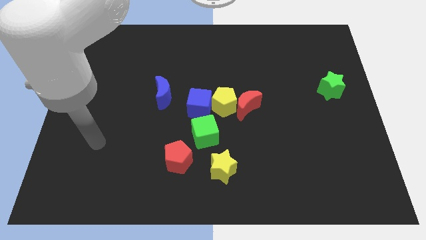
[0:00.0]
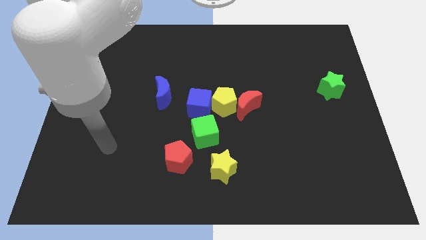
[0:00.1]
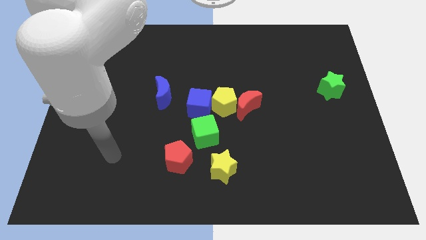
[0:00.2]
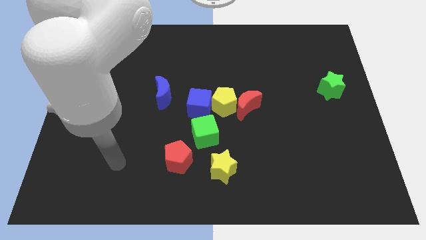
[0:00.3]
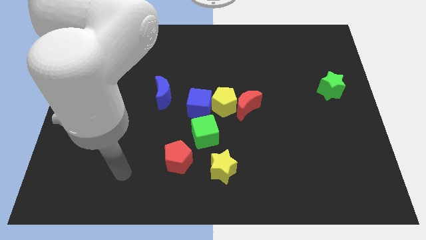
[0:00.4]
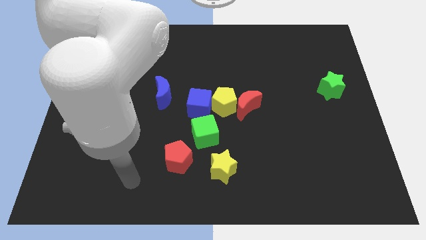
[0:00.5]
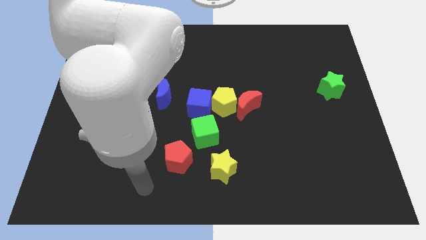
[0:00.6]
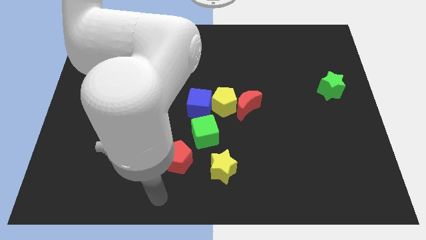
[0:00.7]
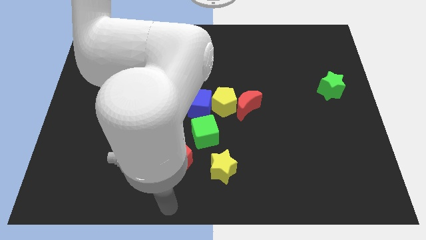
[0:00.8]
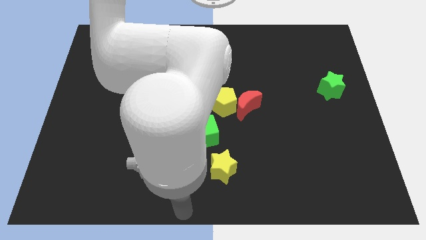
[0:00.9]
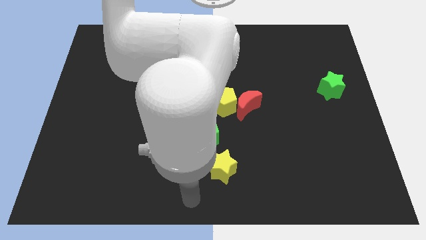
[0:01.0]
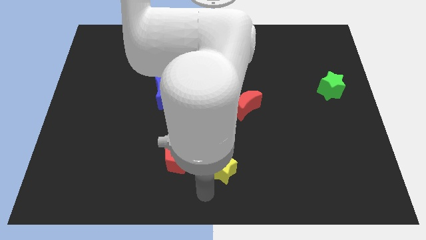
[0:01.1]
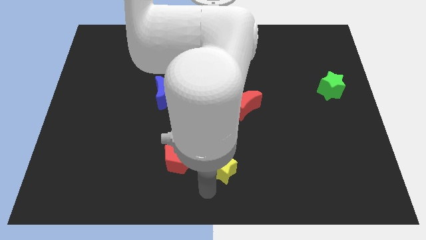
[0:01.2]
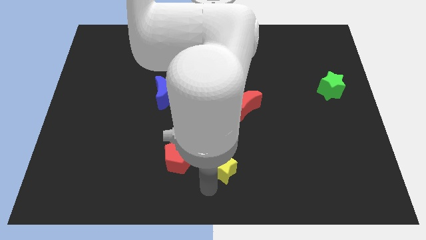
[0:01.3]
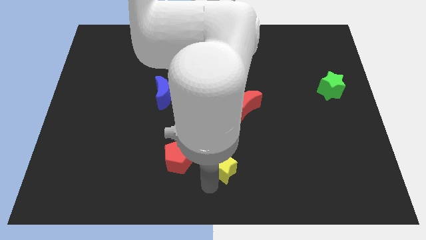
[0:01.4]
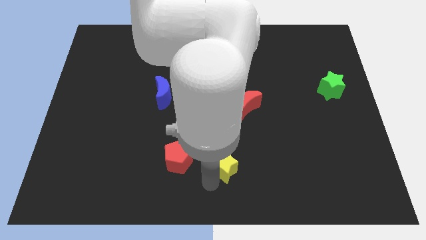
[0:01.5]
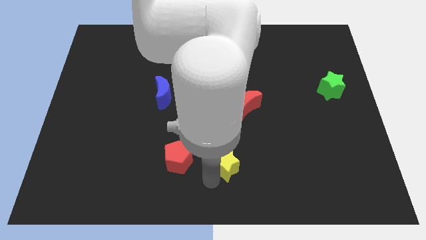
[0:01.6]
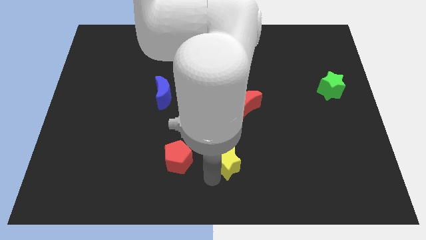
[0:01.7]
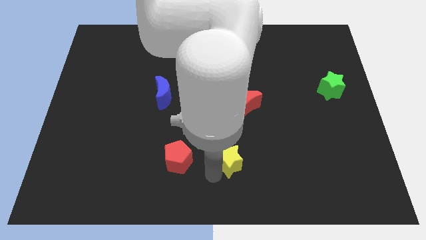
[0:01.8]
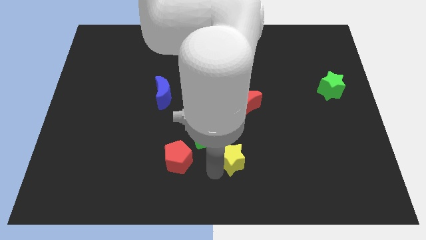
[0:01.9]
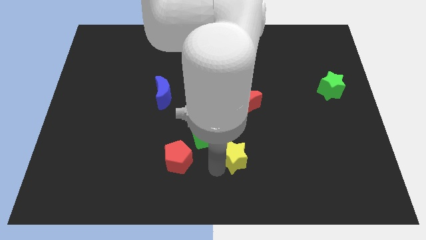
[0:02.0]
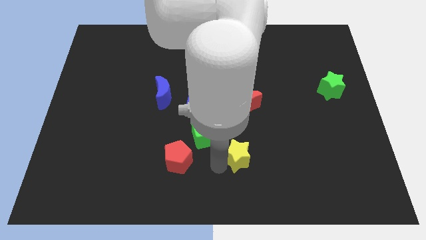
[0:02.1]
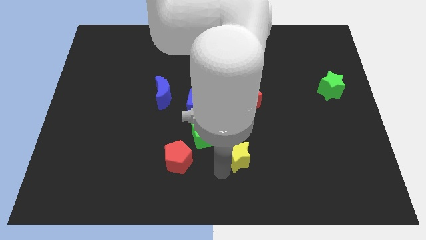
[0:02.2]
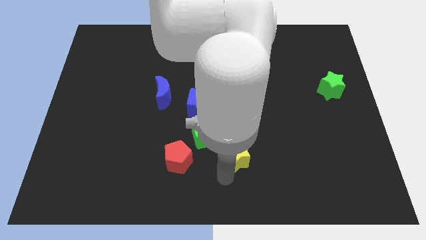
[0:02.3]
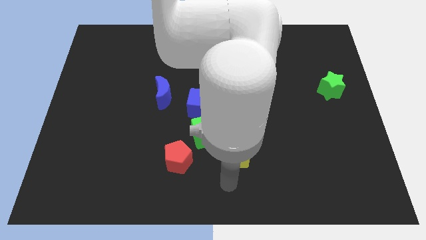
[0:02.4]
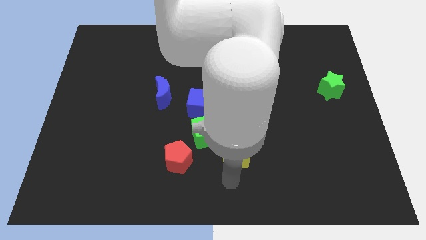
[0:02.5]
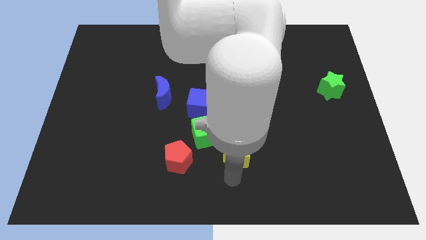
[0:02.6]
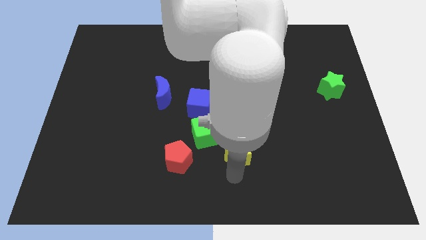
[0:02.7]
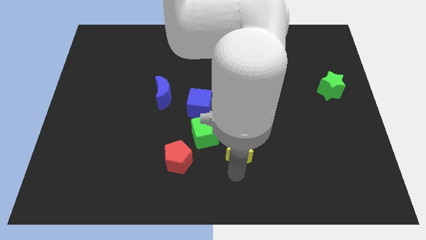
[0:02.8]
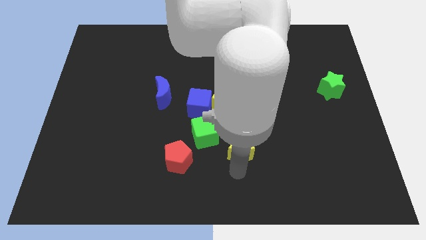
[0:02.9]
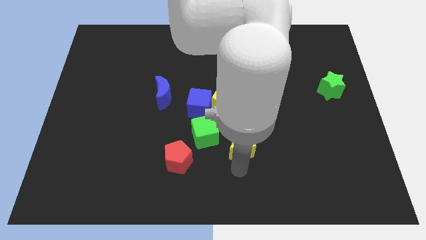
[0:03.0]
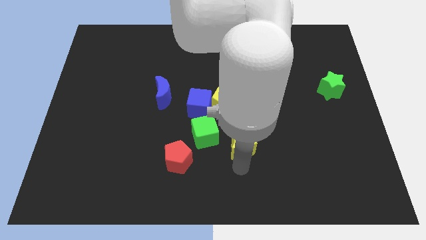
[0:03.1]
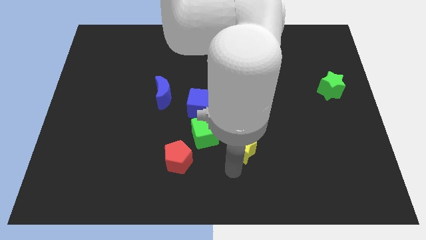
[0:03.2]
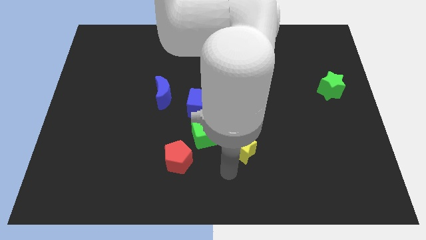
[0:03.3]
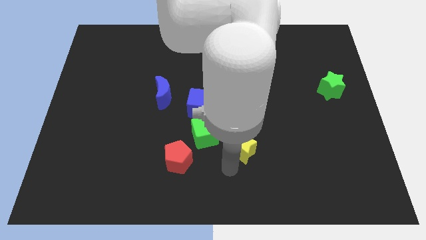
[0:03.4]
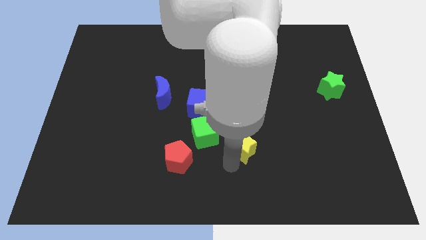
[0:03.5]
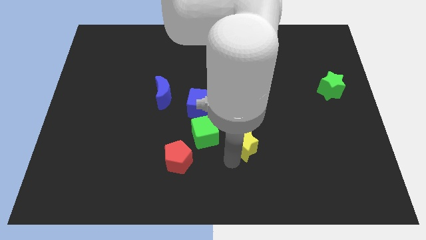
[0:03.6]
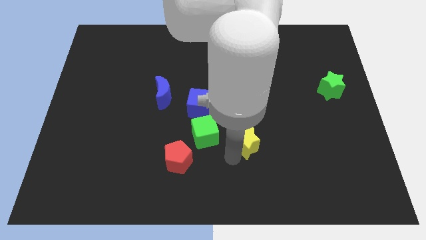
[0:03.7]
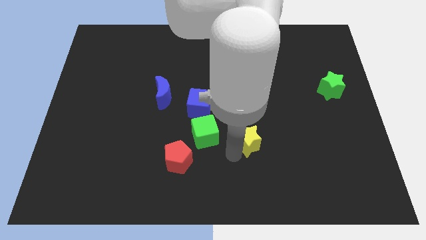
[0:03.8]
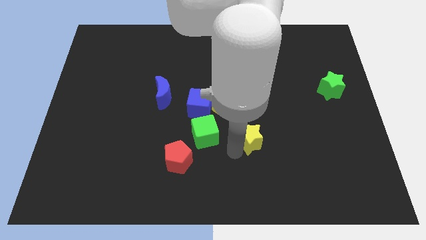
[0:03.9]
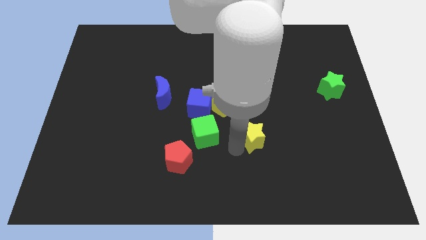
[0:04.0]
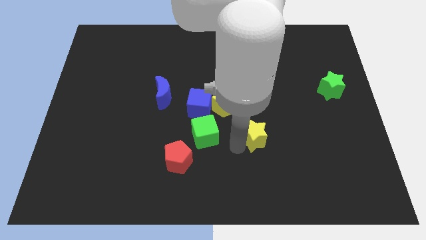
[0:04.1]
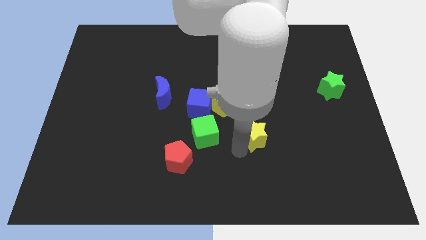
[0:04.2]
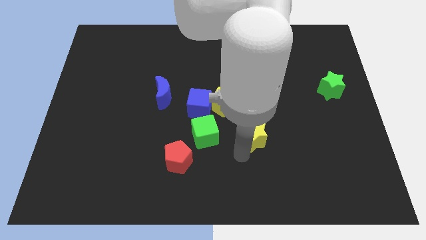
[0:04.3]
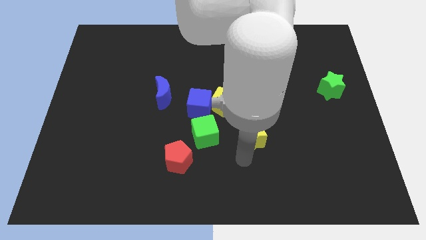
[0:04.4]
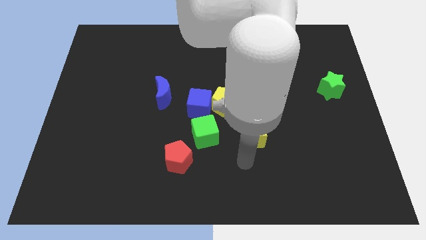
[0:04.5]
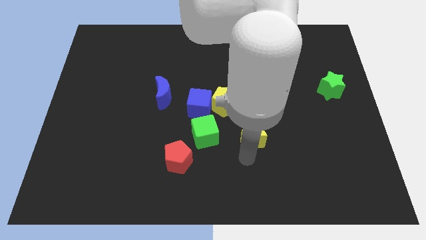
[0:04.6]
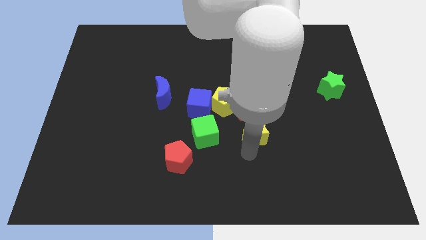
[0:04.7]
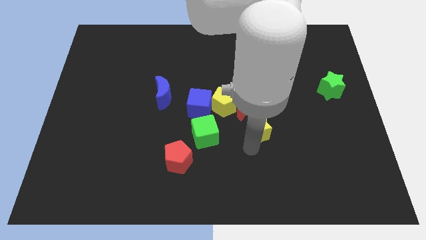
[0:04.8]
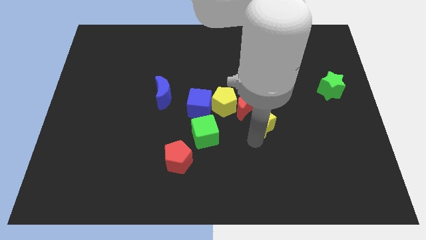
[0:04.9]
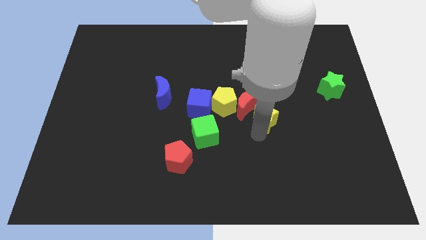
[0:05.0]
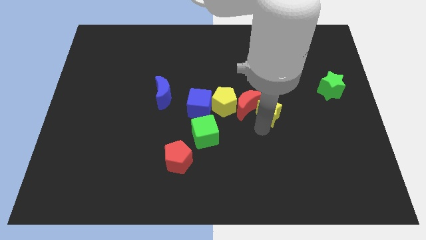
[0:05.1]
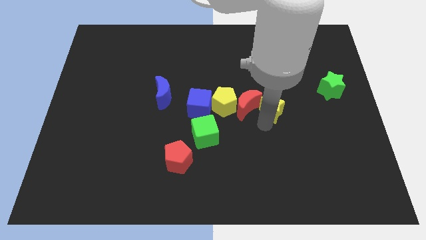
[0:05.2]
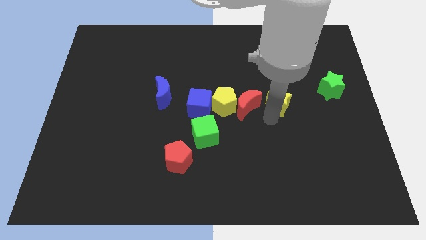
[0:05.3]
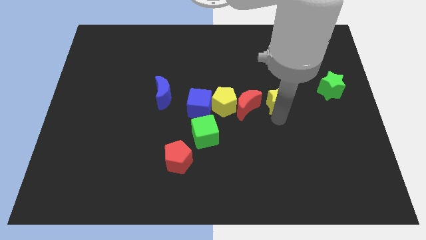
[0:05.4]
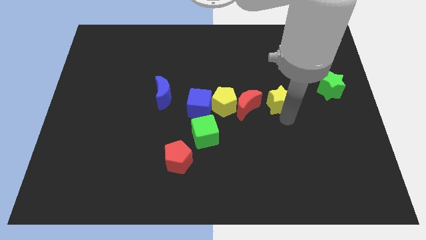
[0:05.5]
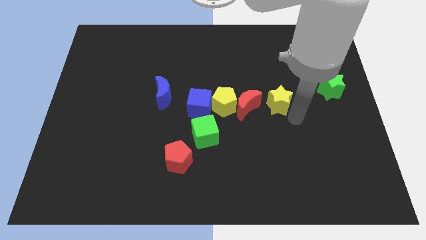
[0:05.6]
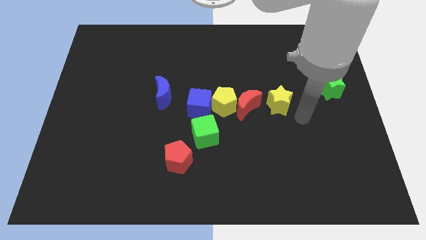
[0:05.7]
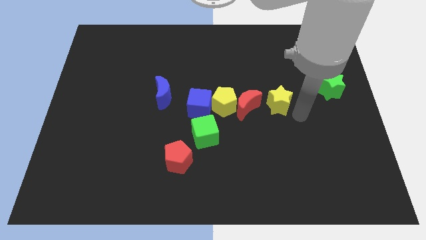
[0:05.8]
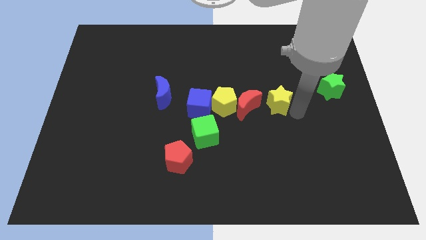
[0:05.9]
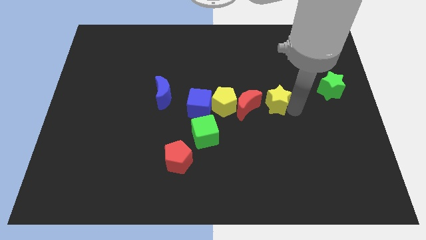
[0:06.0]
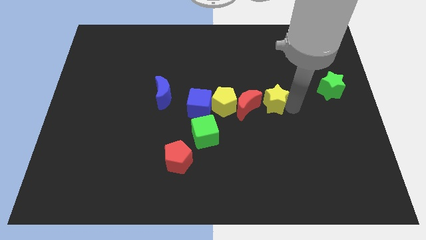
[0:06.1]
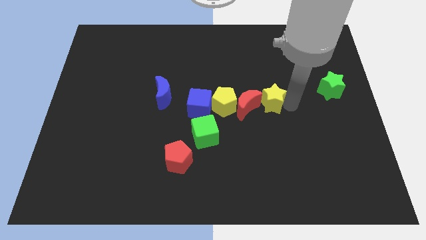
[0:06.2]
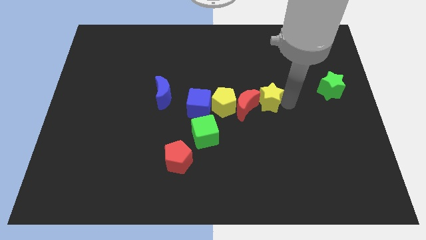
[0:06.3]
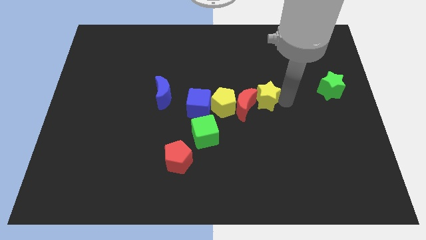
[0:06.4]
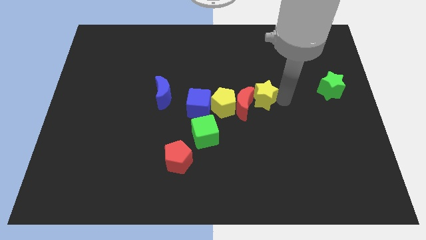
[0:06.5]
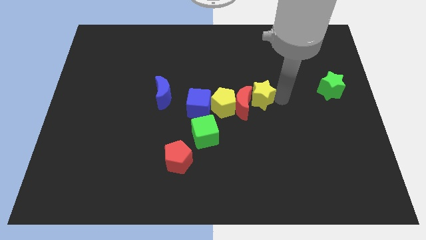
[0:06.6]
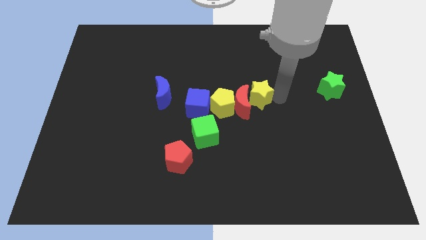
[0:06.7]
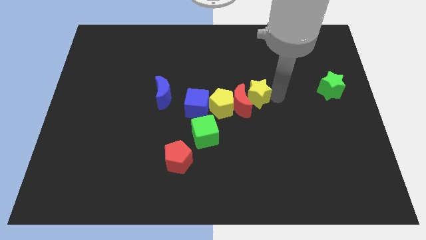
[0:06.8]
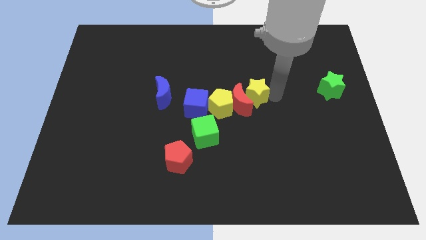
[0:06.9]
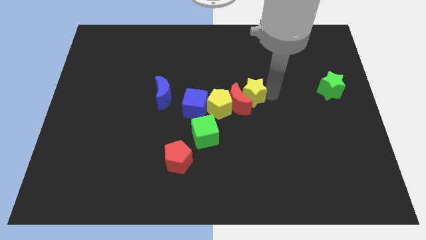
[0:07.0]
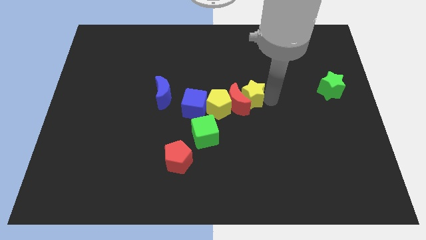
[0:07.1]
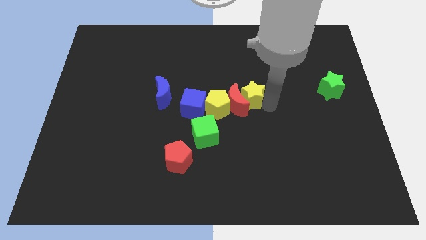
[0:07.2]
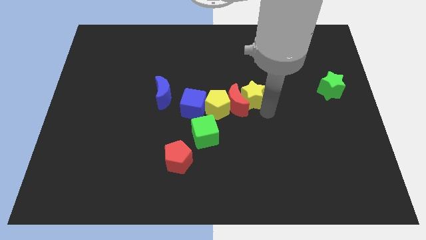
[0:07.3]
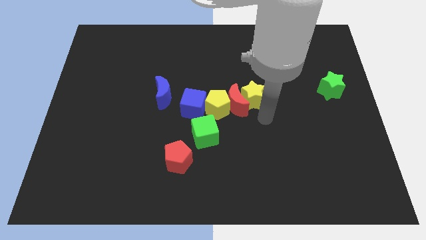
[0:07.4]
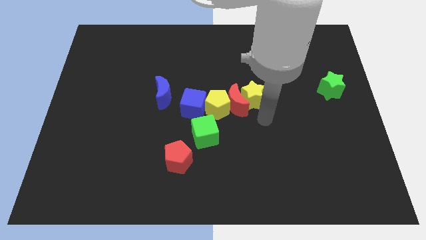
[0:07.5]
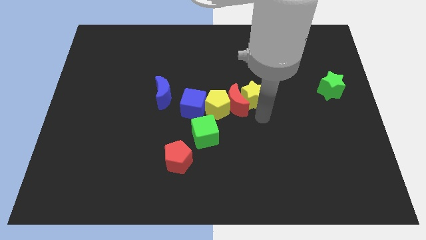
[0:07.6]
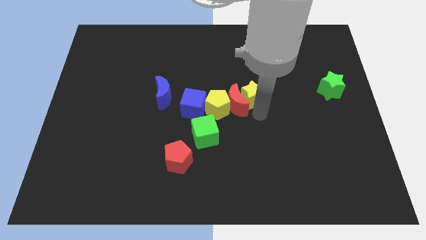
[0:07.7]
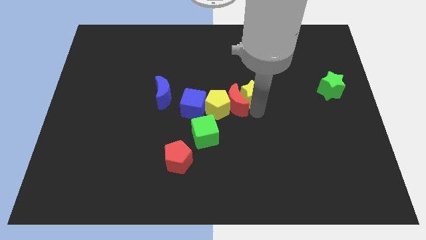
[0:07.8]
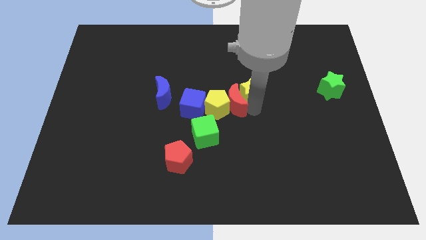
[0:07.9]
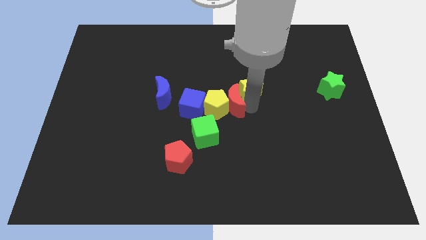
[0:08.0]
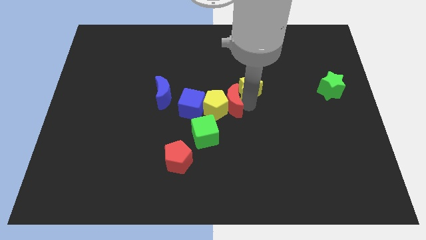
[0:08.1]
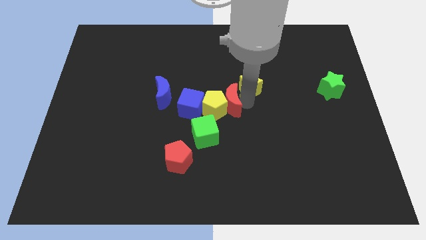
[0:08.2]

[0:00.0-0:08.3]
move the yellow star up
